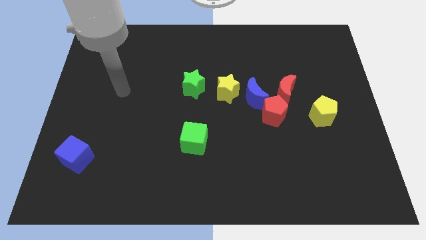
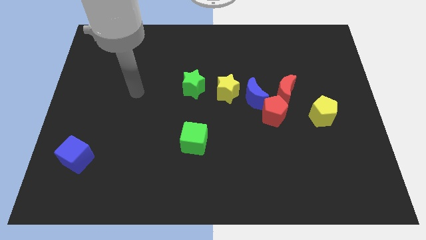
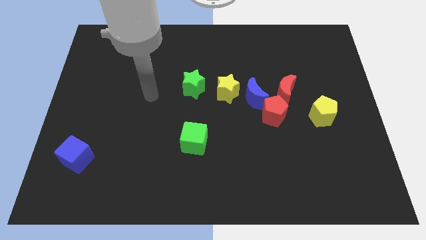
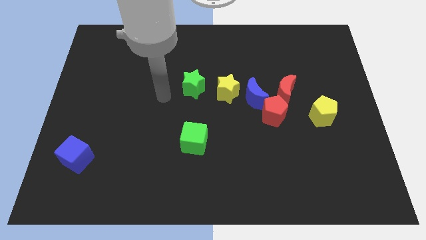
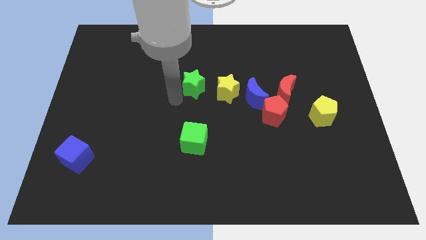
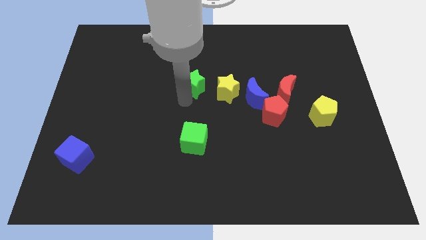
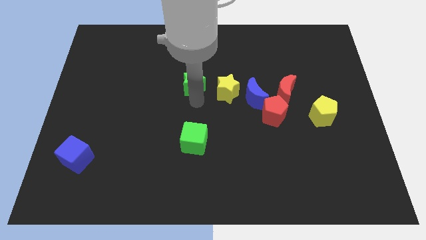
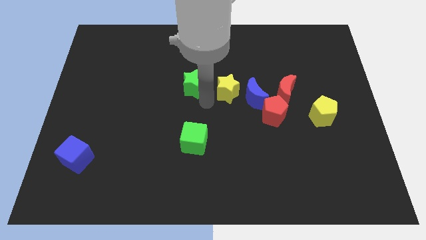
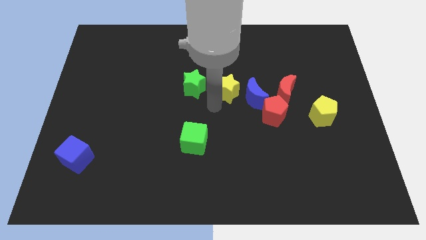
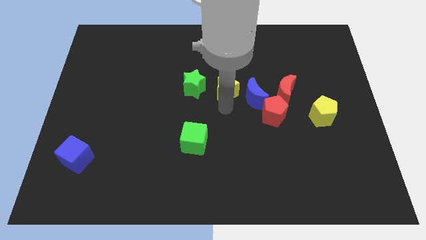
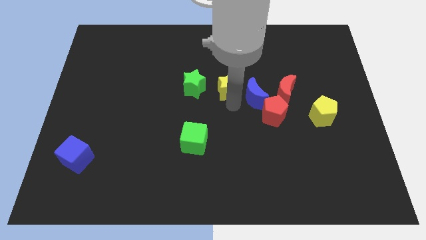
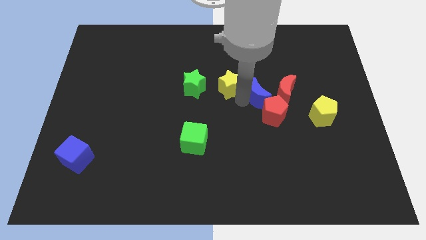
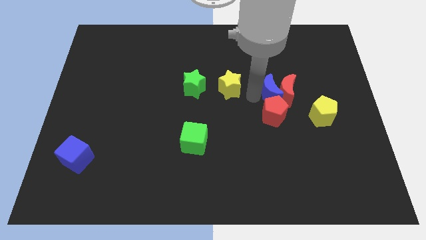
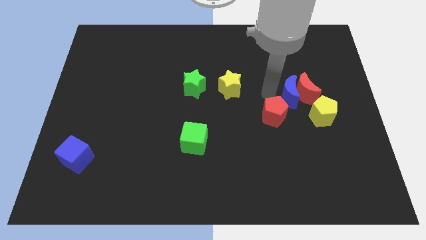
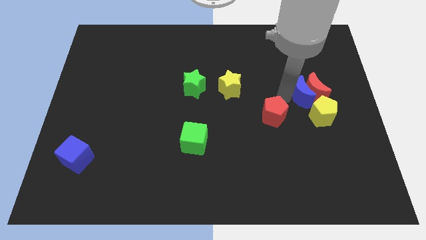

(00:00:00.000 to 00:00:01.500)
separate the red pentagon from the blue moon and red moon

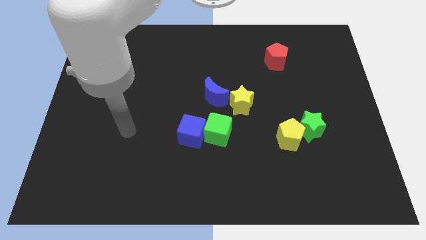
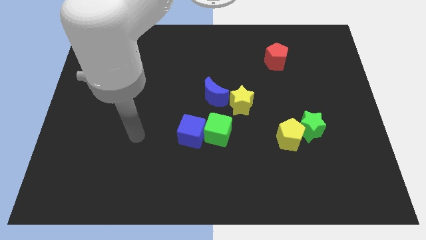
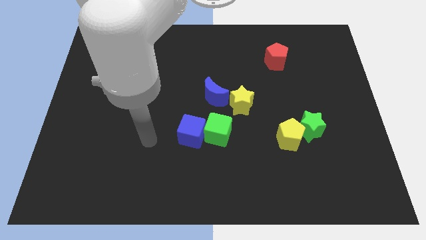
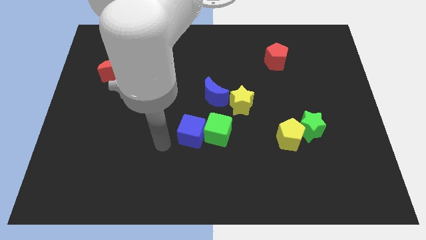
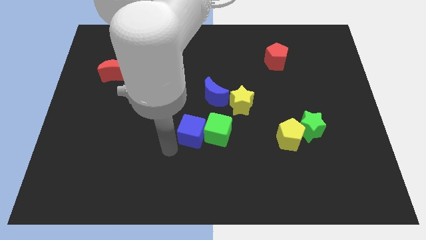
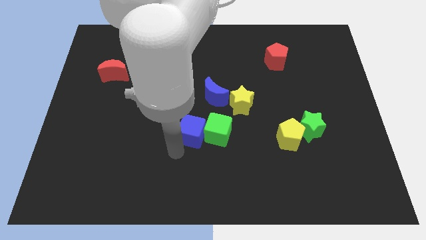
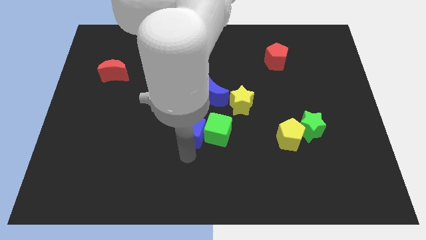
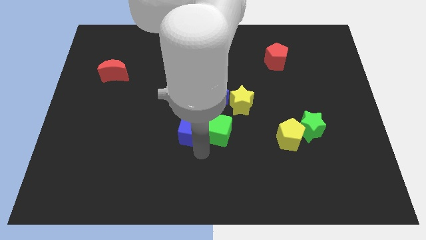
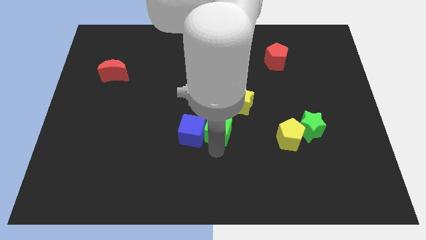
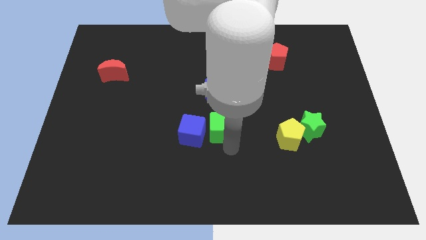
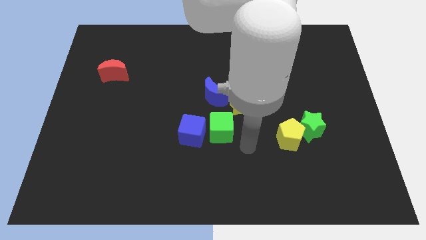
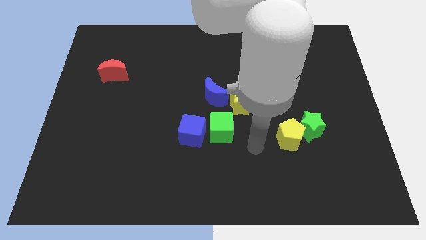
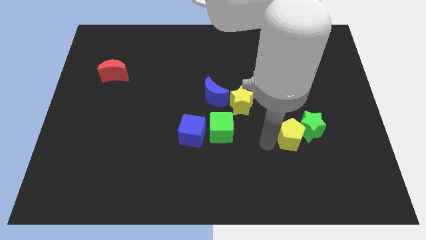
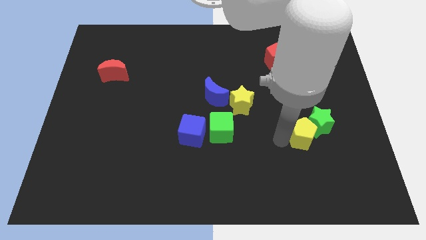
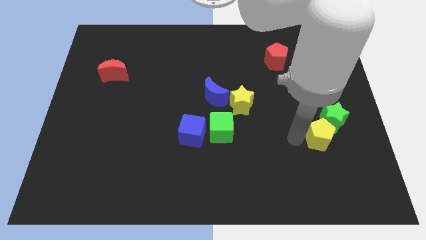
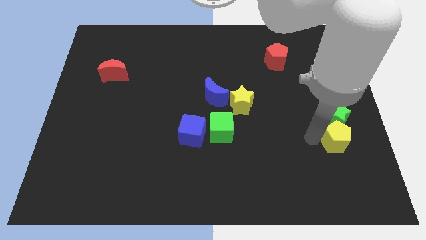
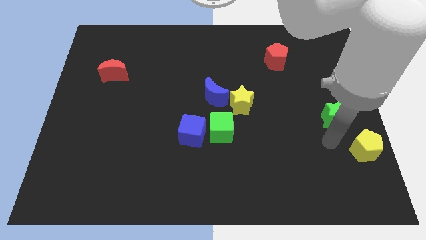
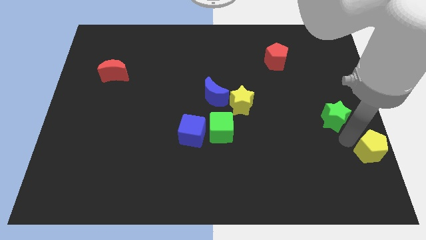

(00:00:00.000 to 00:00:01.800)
separate the green star from the yellow pentagon

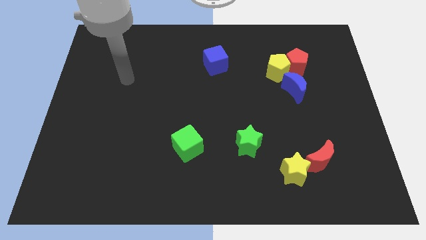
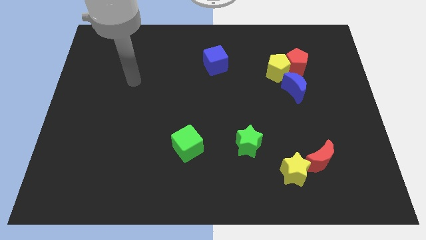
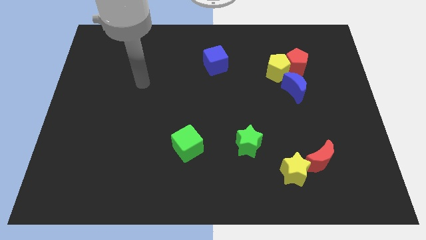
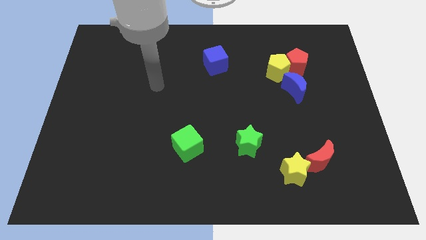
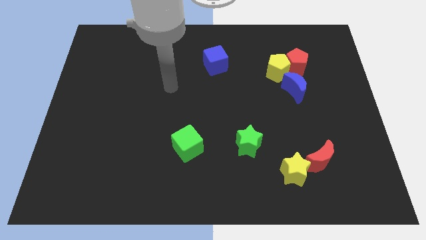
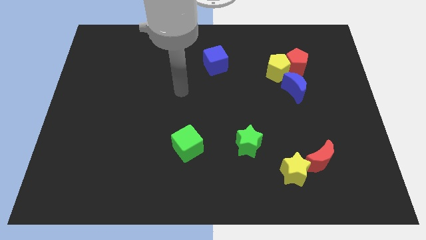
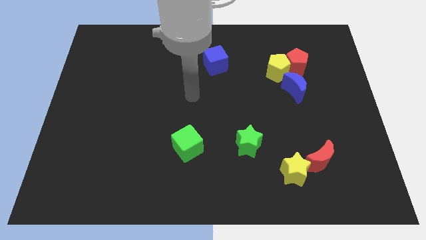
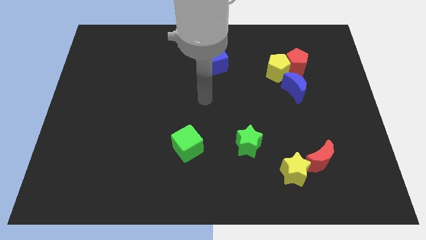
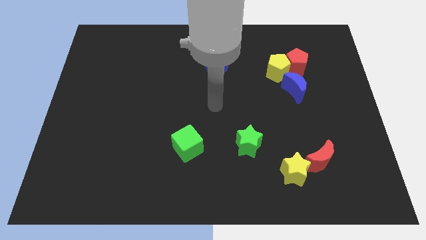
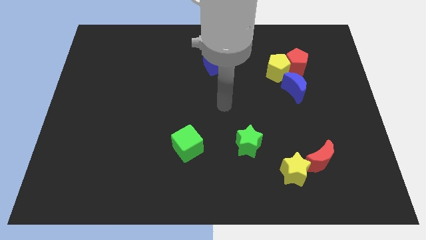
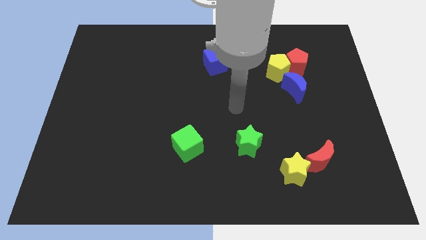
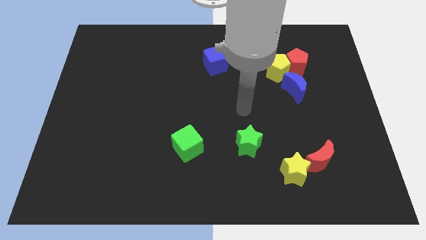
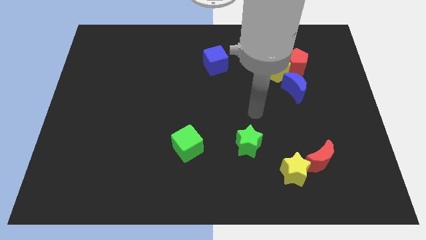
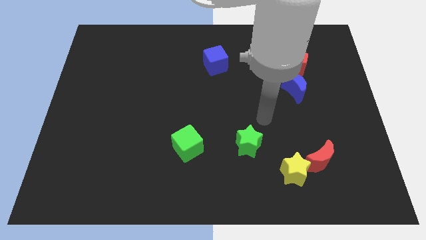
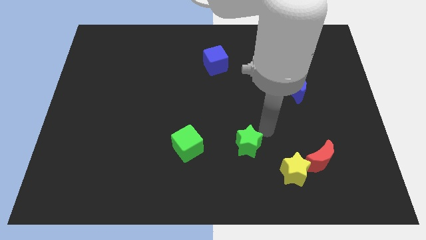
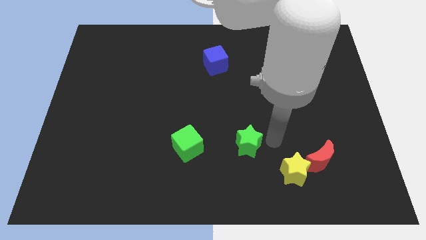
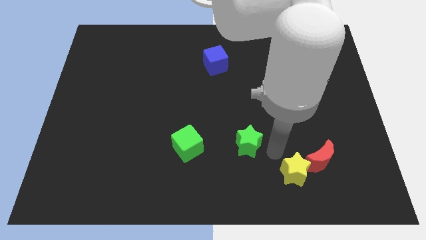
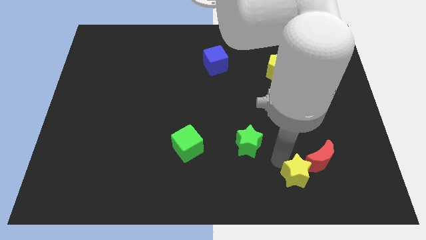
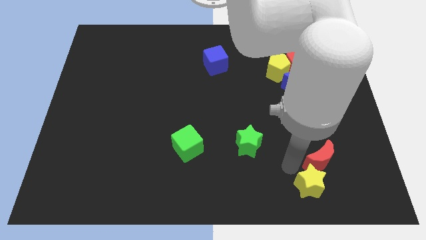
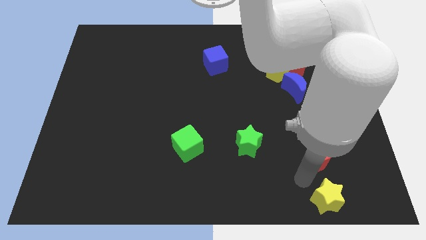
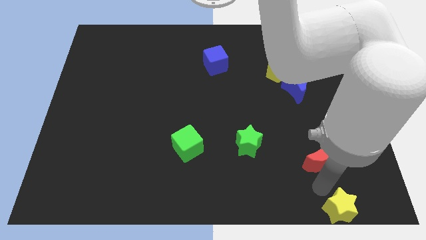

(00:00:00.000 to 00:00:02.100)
move the red moon away from the yellow star

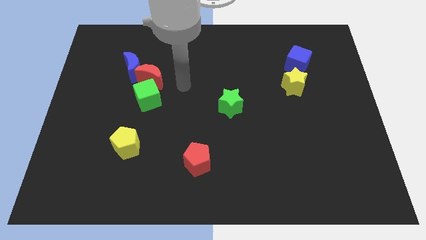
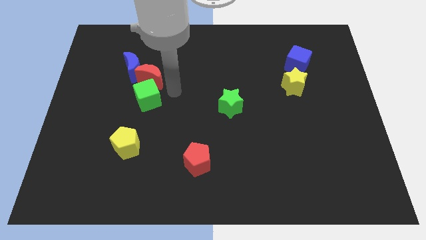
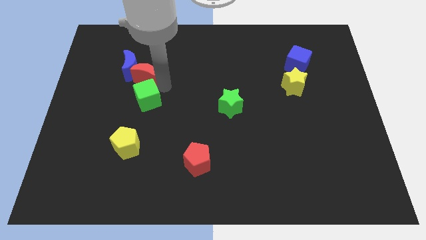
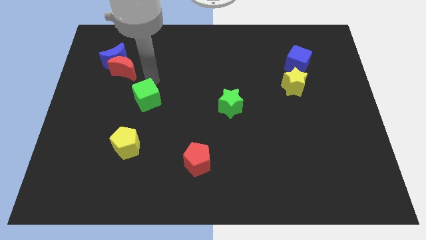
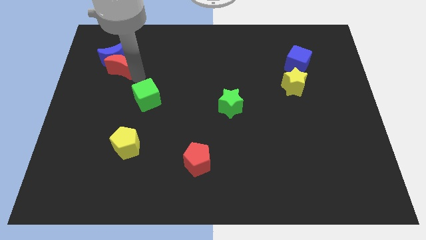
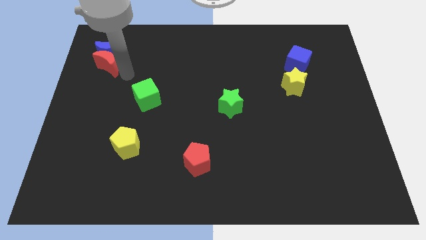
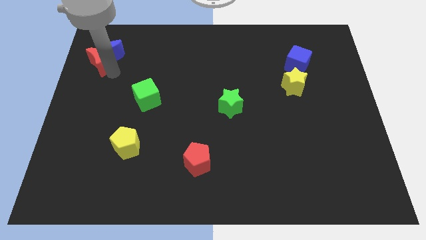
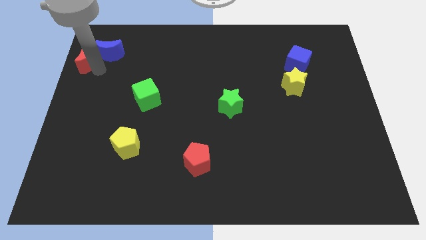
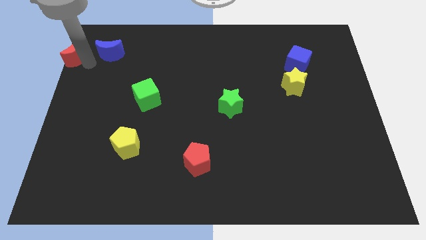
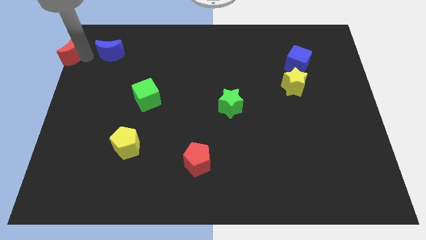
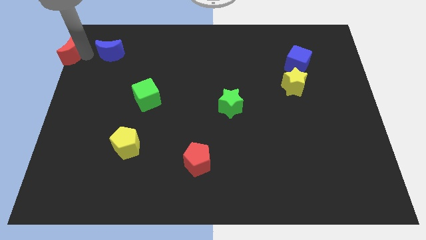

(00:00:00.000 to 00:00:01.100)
separate the blue moon from the red moon

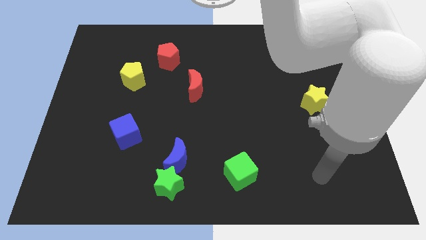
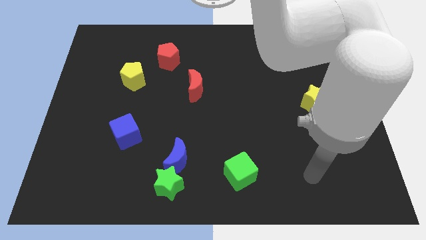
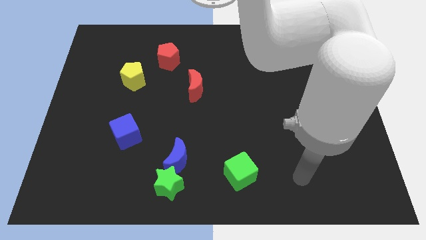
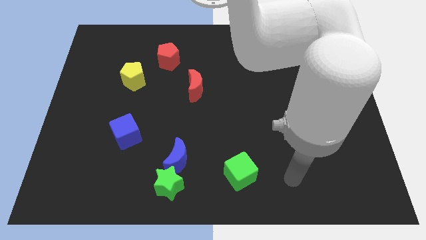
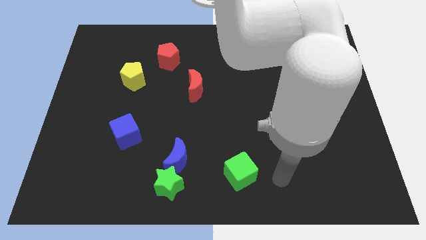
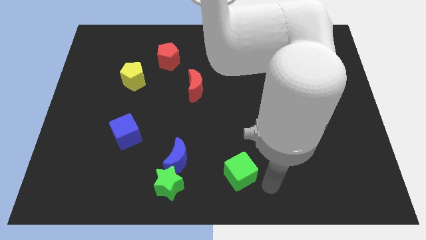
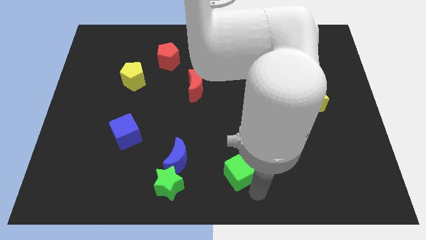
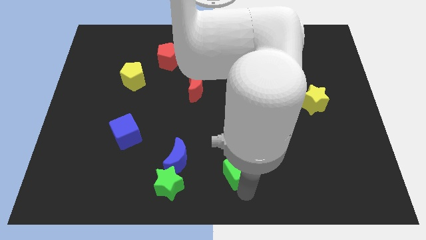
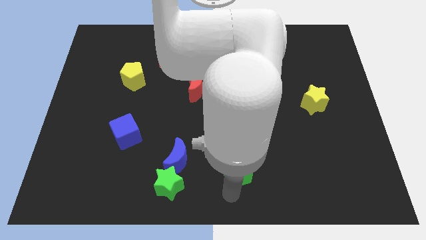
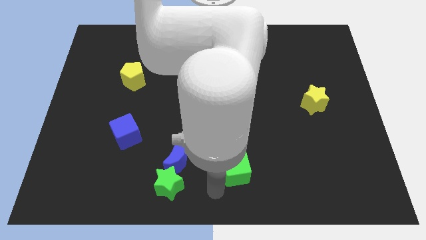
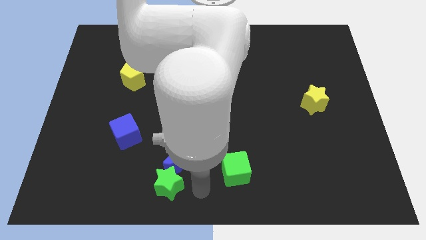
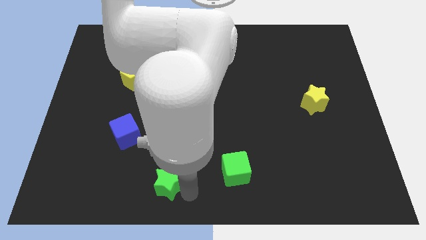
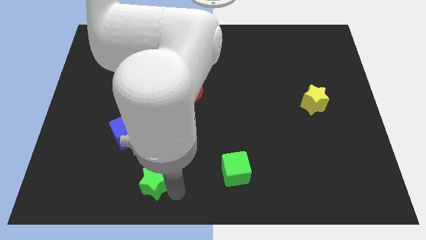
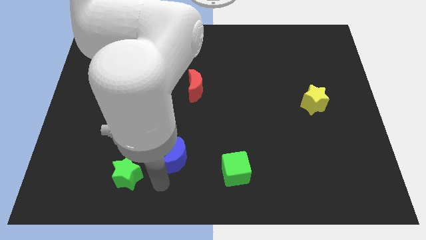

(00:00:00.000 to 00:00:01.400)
move the blue moon away from the green star

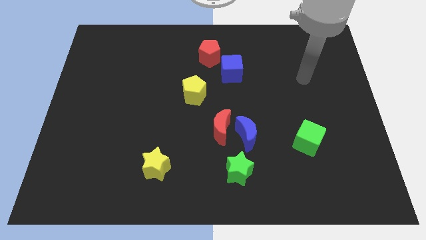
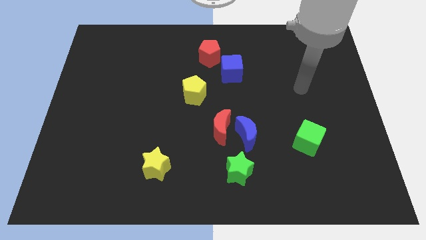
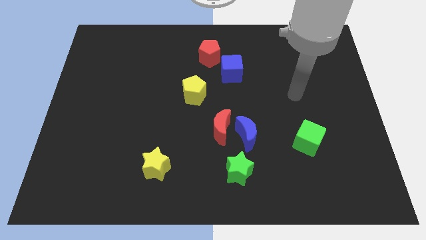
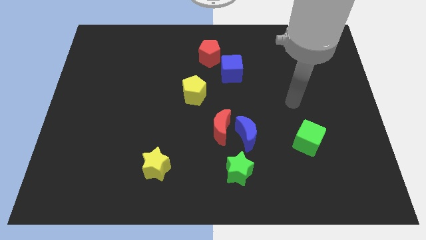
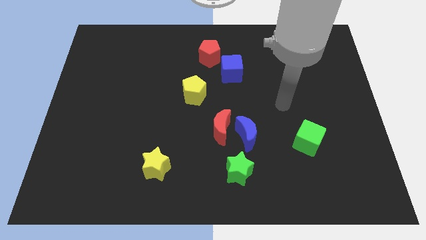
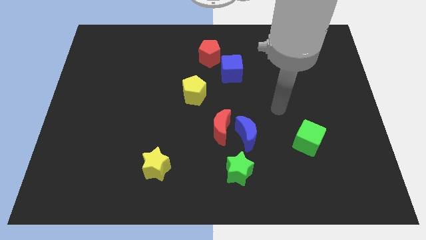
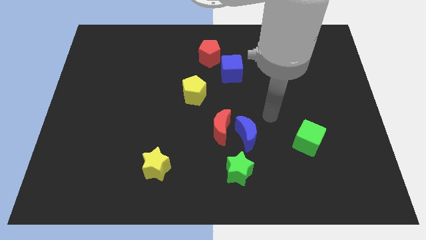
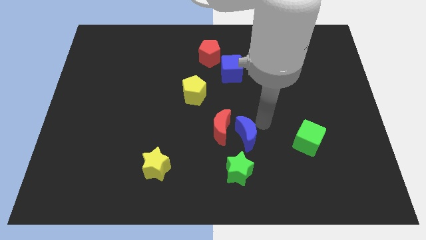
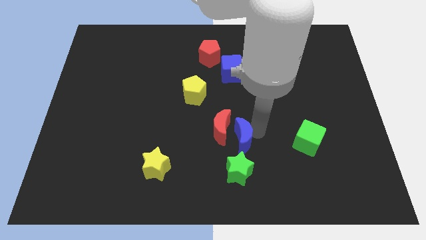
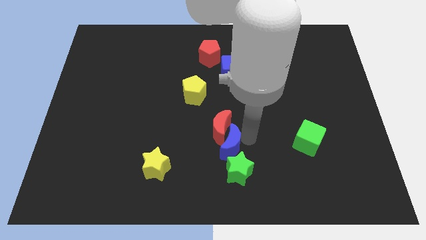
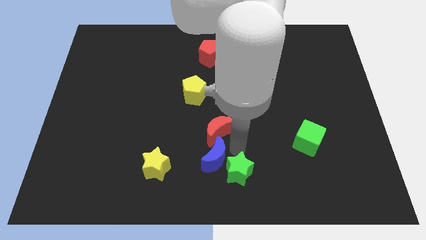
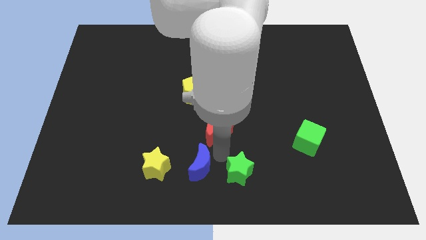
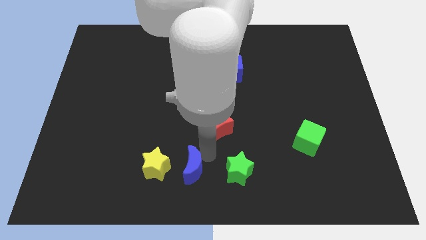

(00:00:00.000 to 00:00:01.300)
move the red moon away from the blue moon
